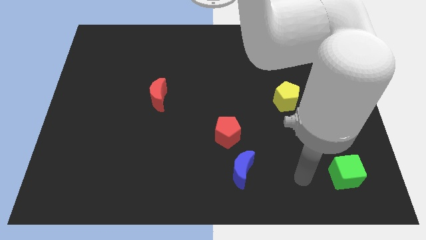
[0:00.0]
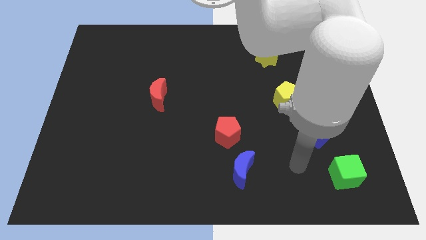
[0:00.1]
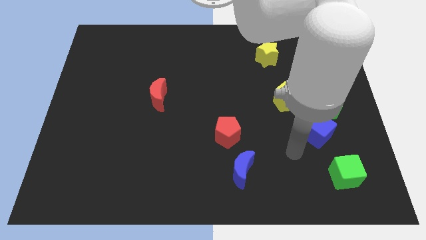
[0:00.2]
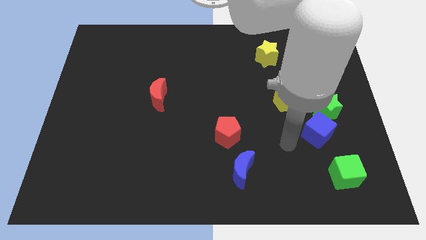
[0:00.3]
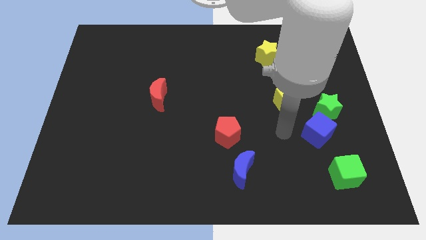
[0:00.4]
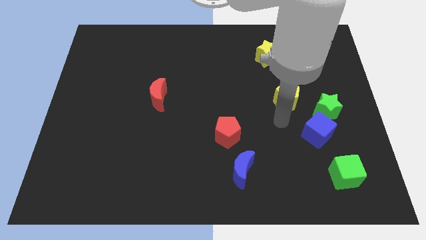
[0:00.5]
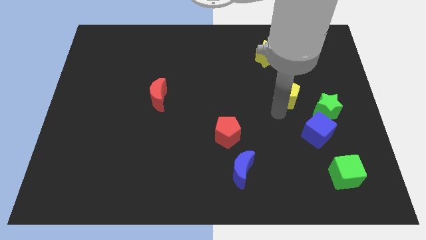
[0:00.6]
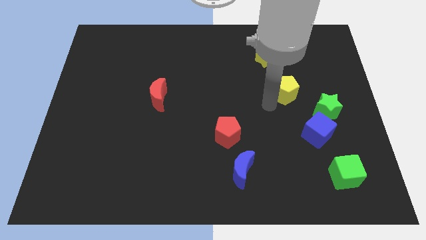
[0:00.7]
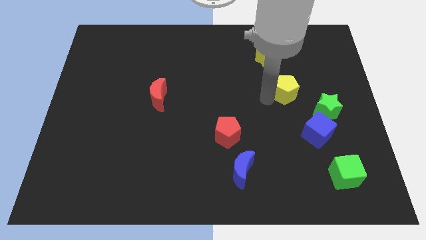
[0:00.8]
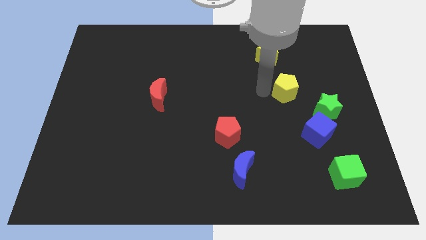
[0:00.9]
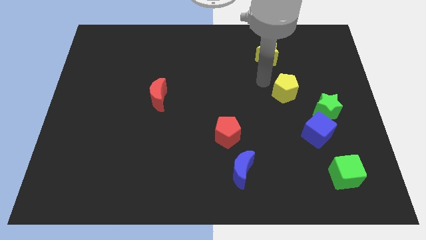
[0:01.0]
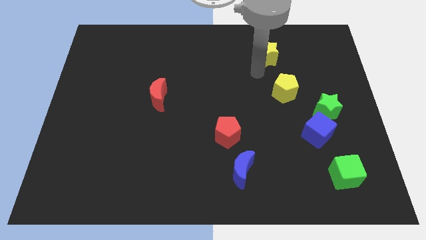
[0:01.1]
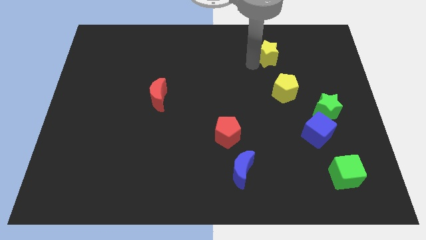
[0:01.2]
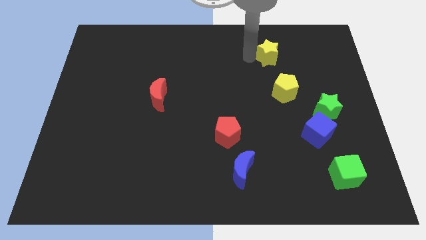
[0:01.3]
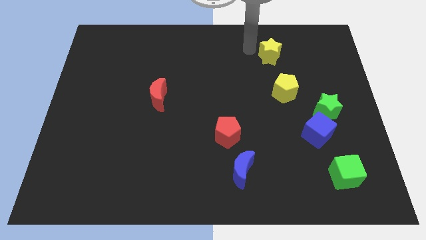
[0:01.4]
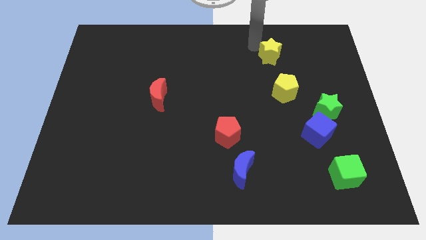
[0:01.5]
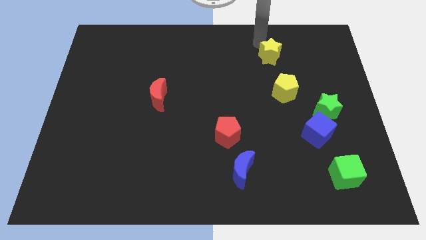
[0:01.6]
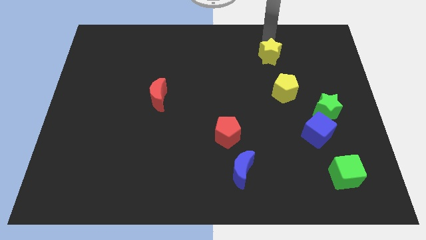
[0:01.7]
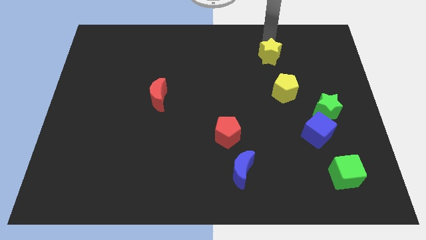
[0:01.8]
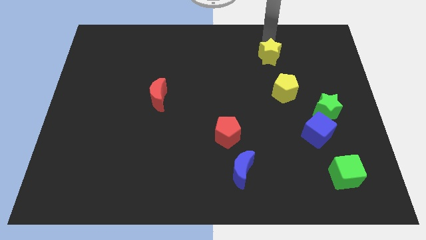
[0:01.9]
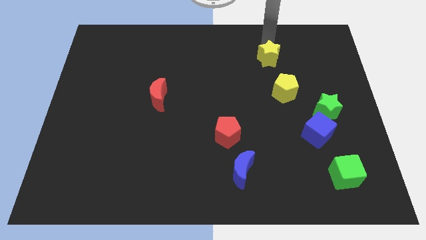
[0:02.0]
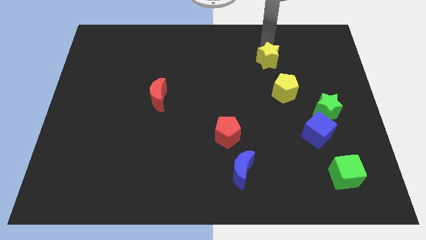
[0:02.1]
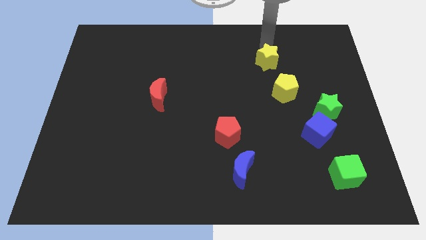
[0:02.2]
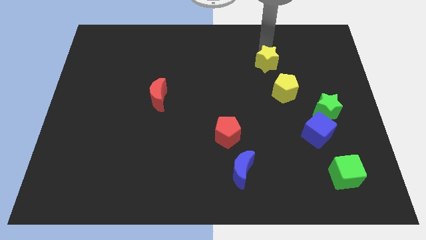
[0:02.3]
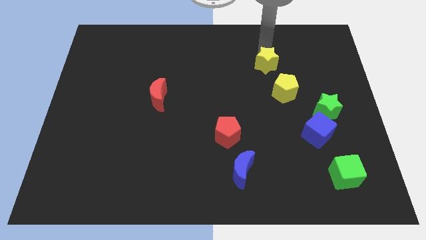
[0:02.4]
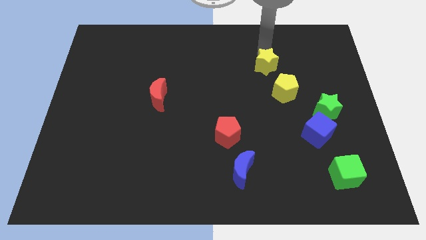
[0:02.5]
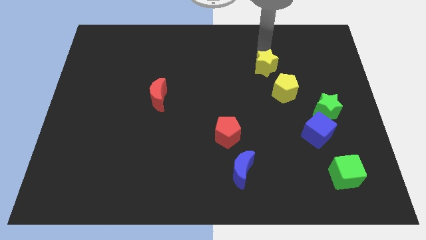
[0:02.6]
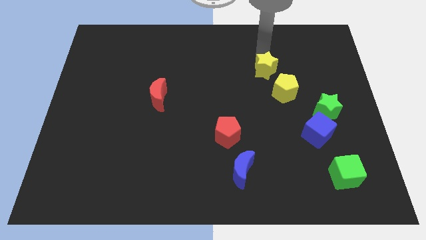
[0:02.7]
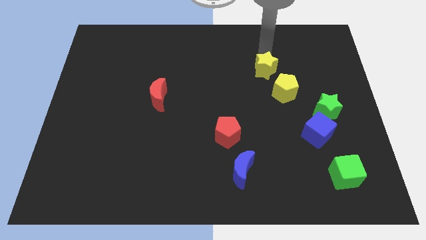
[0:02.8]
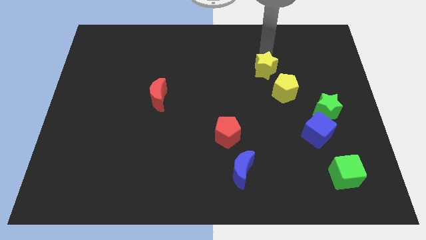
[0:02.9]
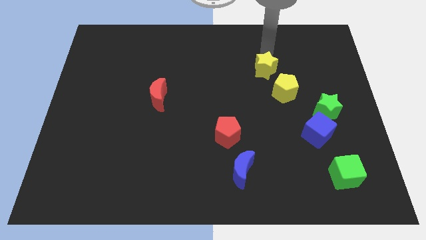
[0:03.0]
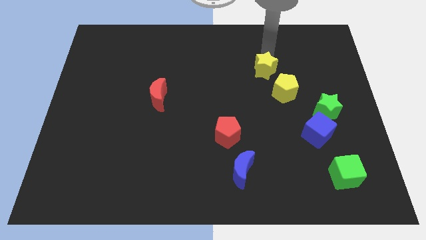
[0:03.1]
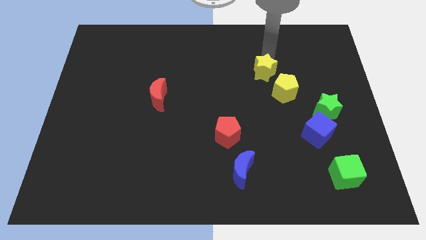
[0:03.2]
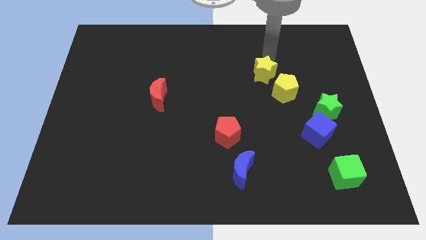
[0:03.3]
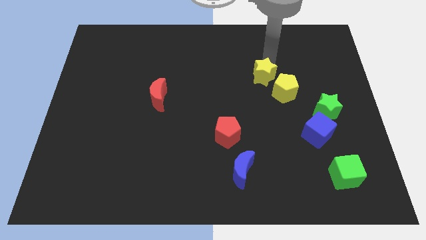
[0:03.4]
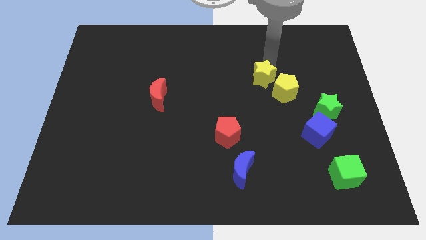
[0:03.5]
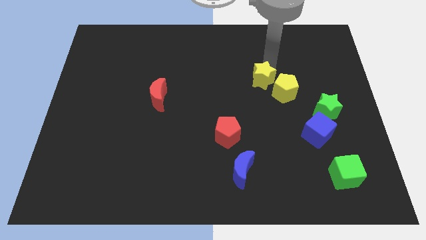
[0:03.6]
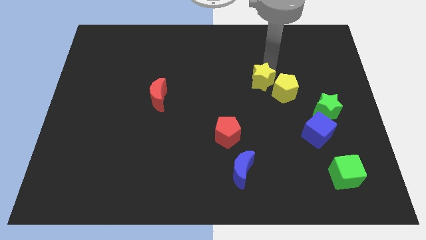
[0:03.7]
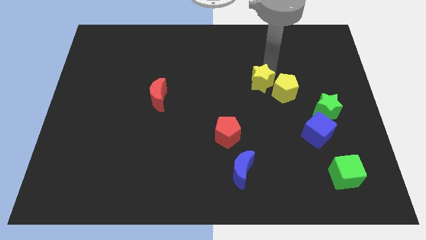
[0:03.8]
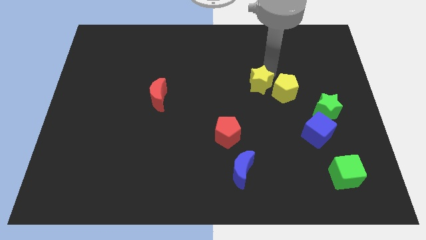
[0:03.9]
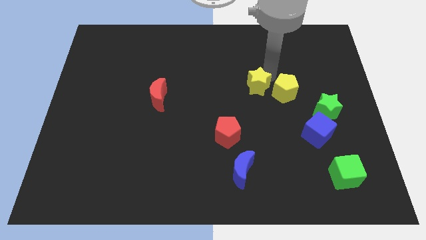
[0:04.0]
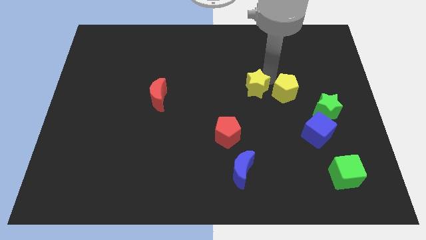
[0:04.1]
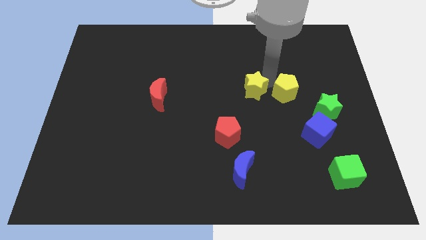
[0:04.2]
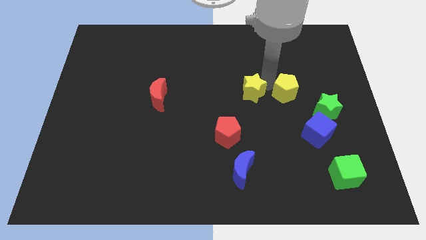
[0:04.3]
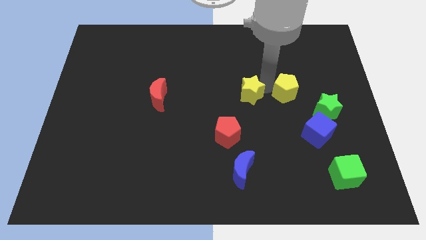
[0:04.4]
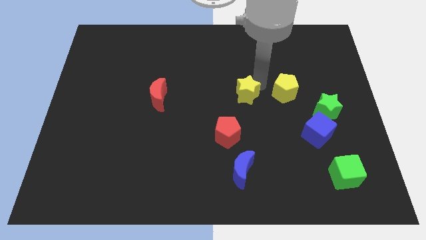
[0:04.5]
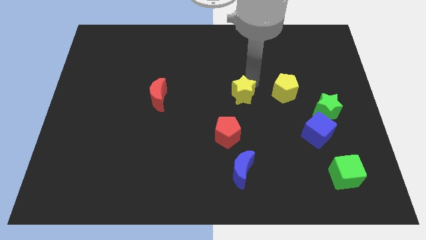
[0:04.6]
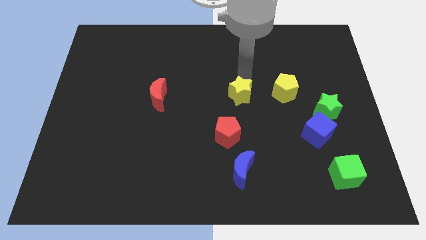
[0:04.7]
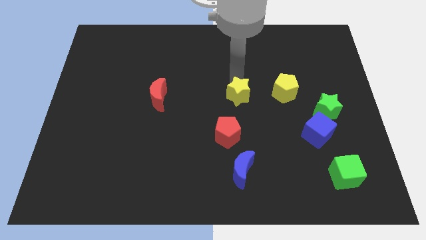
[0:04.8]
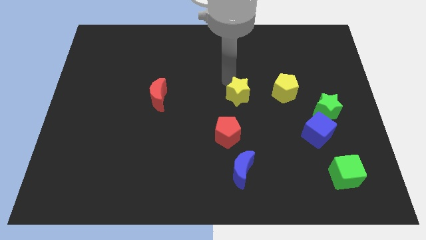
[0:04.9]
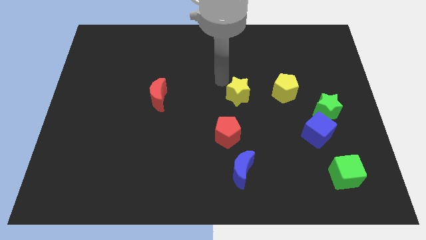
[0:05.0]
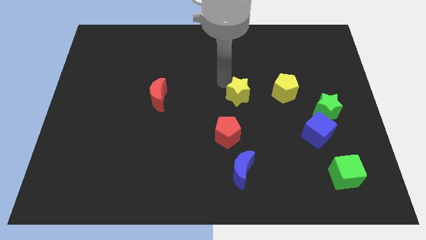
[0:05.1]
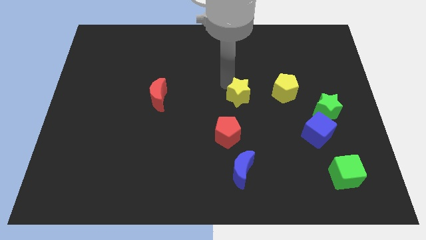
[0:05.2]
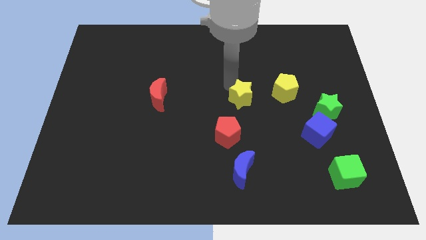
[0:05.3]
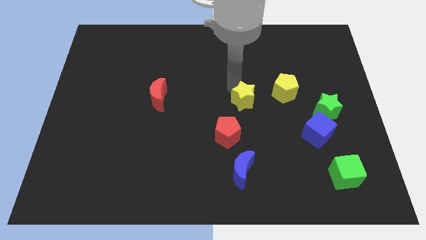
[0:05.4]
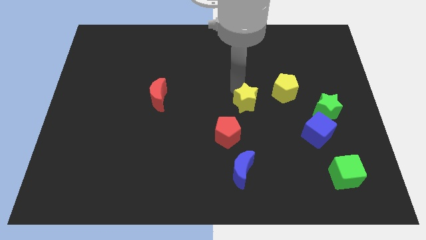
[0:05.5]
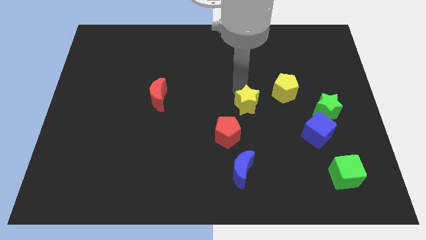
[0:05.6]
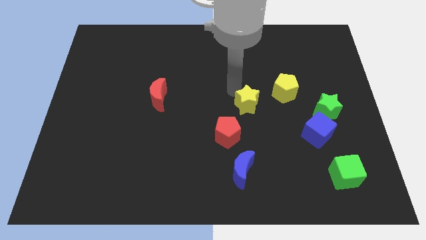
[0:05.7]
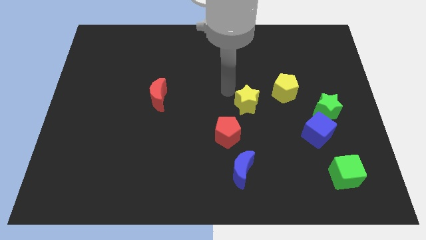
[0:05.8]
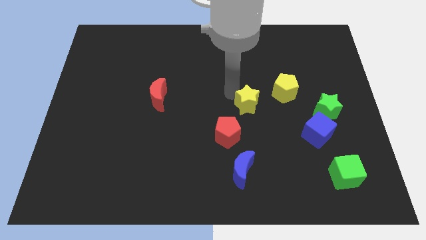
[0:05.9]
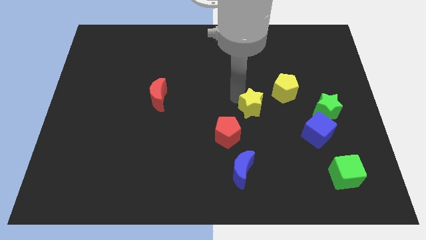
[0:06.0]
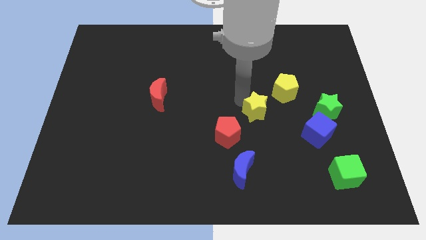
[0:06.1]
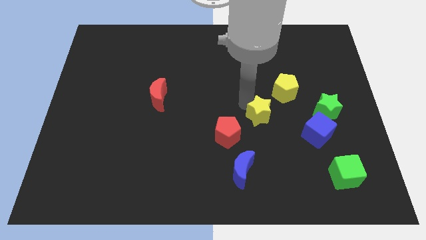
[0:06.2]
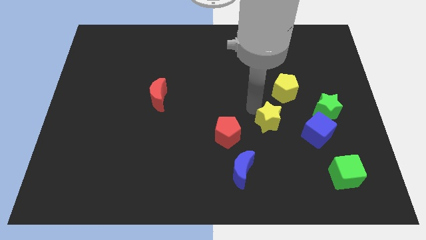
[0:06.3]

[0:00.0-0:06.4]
push the yellow star down

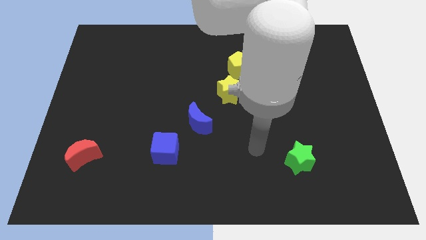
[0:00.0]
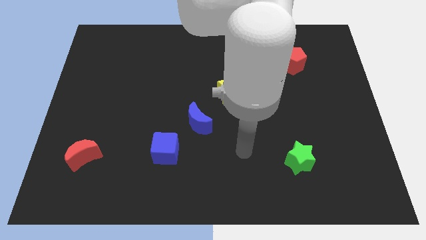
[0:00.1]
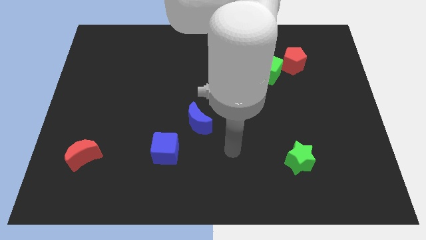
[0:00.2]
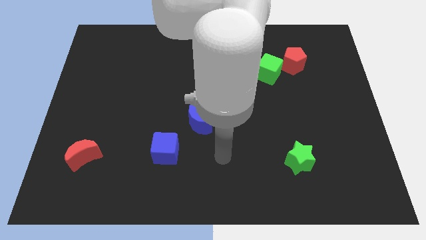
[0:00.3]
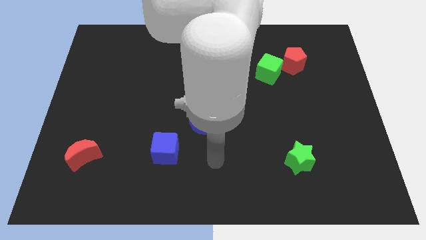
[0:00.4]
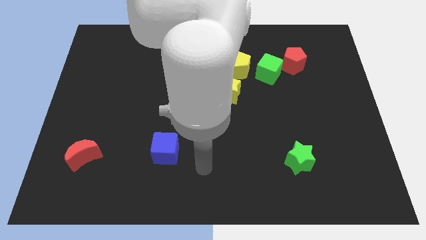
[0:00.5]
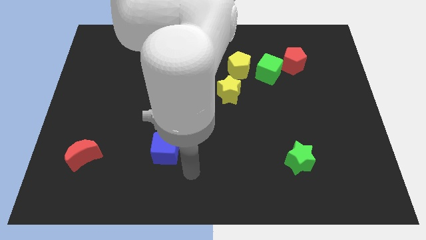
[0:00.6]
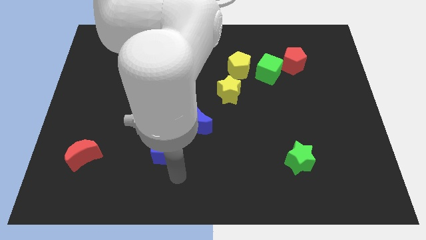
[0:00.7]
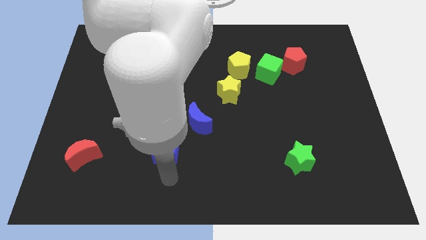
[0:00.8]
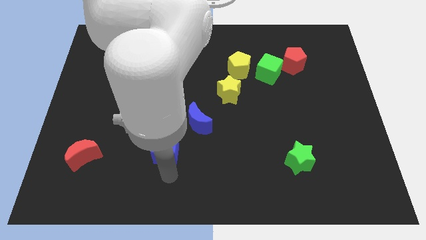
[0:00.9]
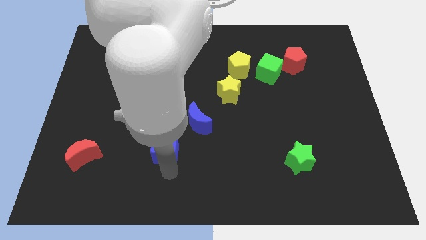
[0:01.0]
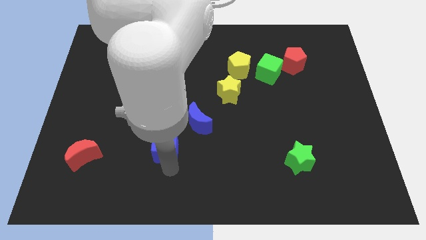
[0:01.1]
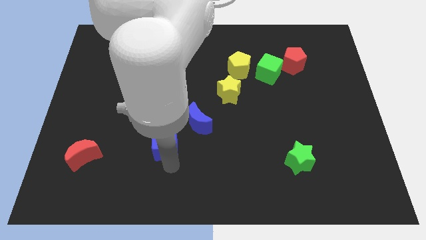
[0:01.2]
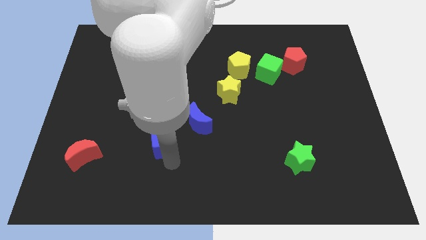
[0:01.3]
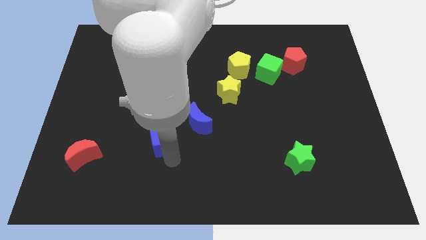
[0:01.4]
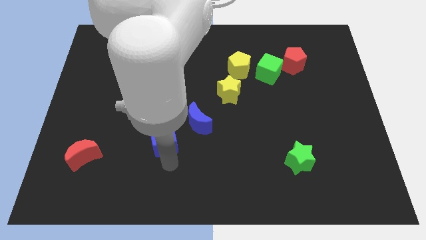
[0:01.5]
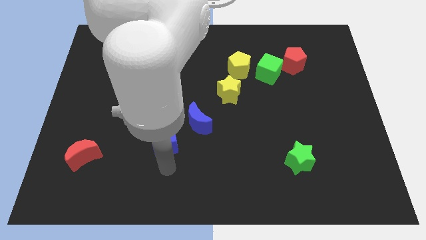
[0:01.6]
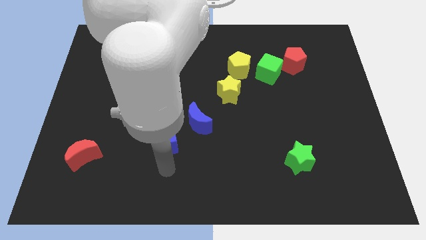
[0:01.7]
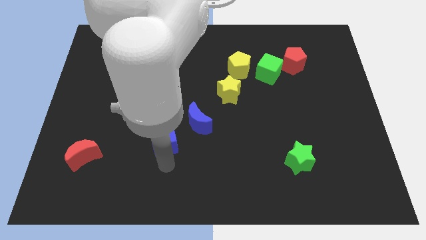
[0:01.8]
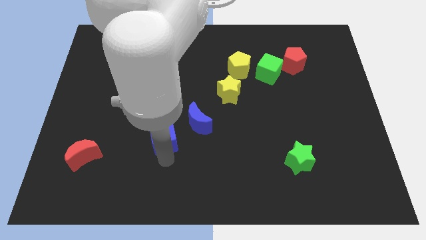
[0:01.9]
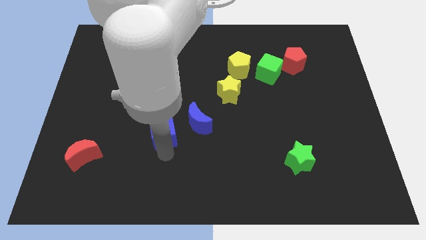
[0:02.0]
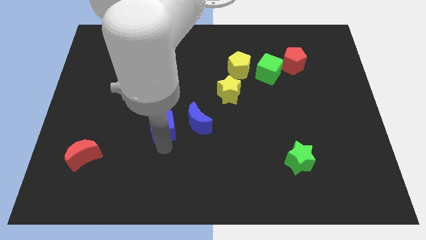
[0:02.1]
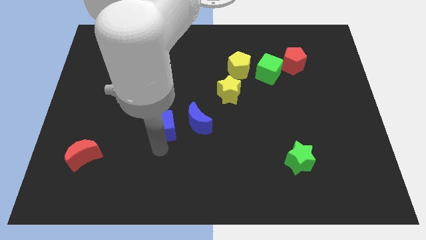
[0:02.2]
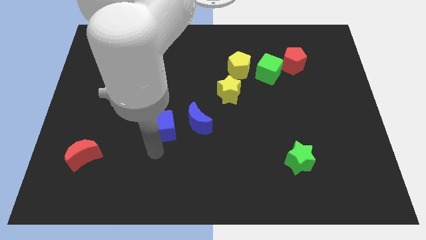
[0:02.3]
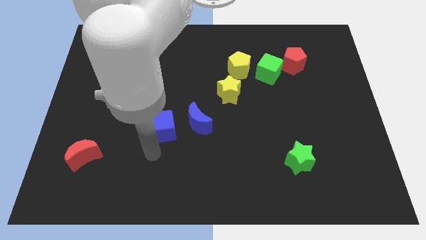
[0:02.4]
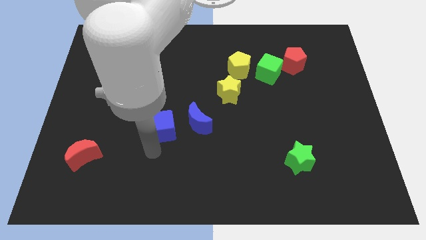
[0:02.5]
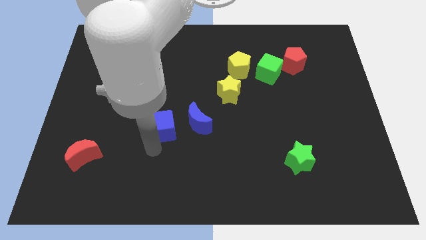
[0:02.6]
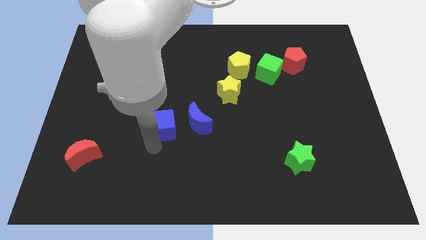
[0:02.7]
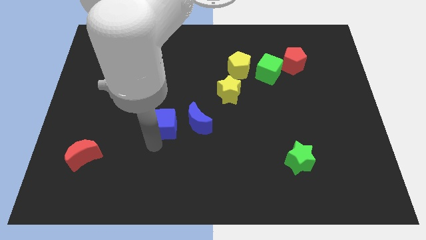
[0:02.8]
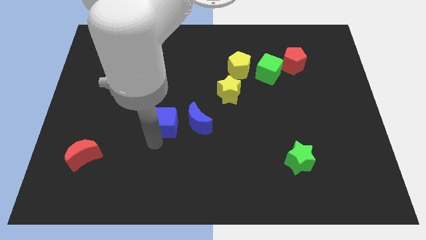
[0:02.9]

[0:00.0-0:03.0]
slide the blue cube up somewhat
